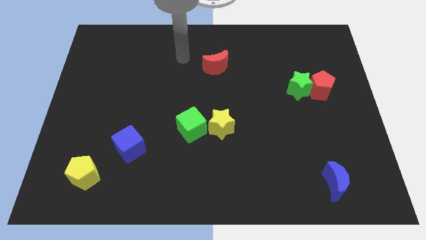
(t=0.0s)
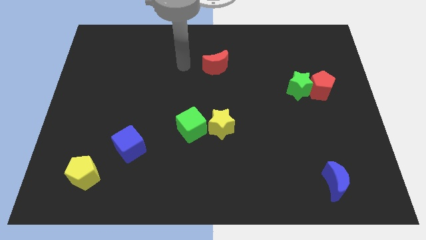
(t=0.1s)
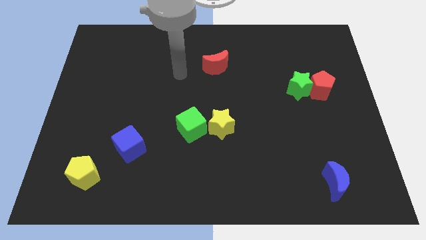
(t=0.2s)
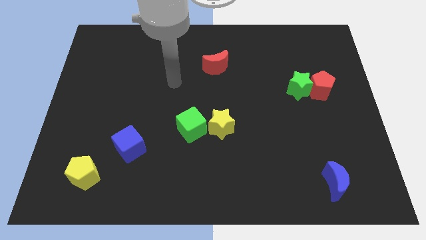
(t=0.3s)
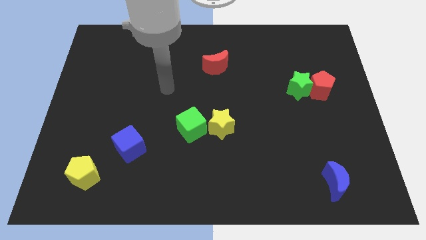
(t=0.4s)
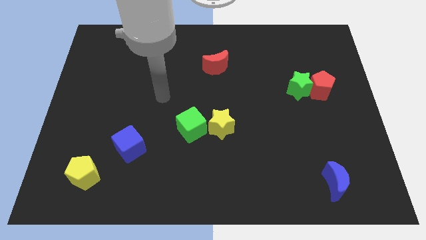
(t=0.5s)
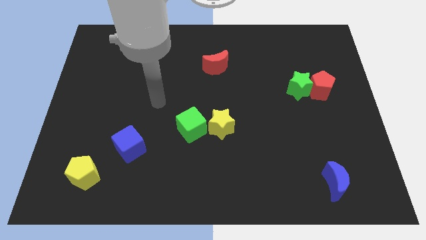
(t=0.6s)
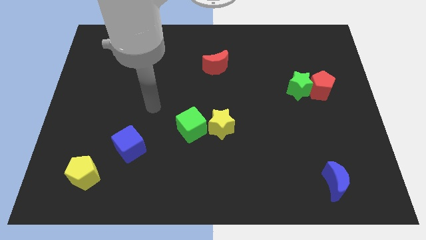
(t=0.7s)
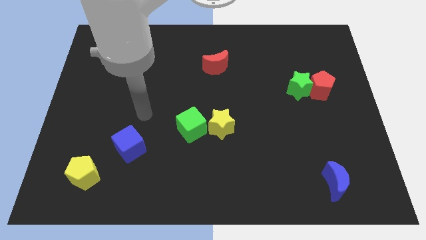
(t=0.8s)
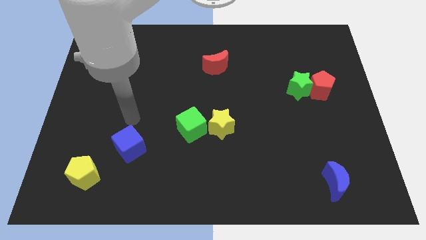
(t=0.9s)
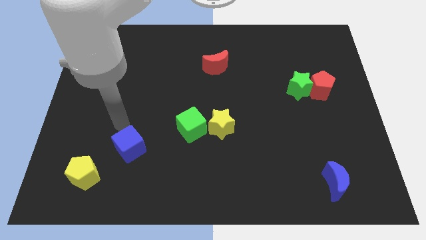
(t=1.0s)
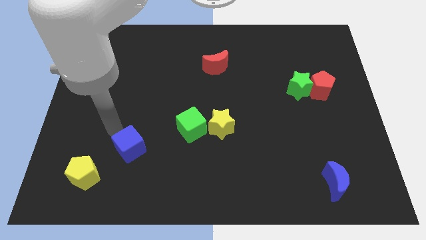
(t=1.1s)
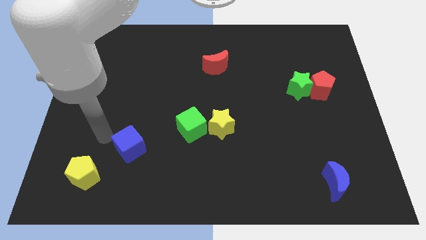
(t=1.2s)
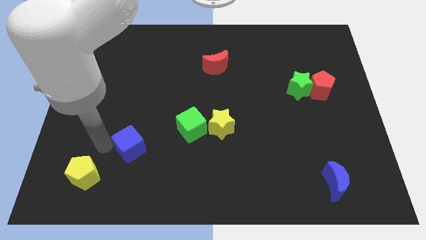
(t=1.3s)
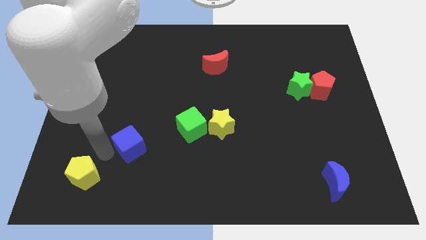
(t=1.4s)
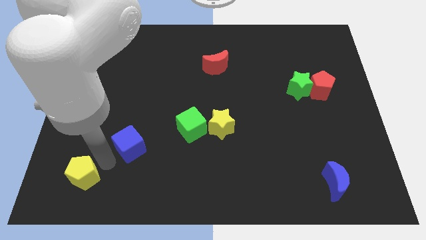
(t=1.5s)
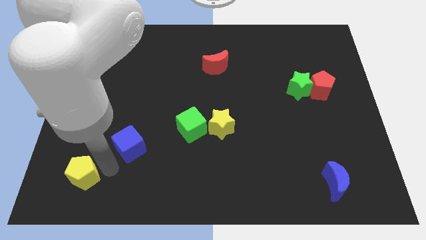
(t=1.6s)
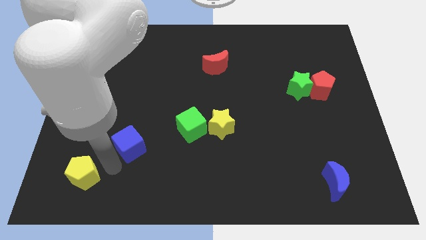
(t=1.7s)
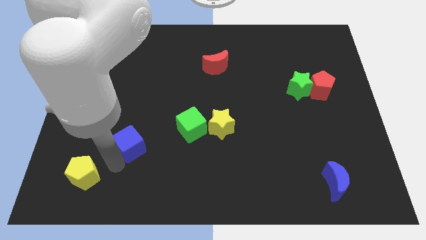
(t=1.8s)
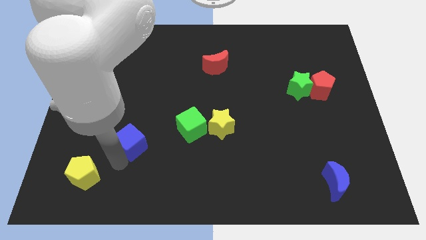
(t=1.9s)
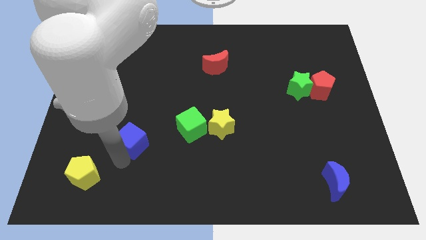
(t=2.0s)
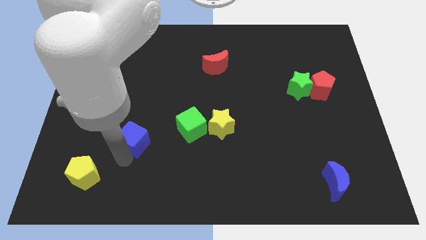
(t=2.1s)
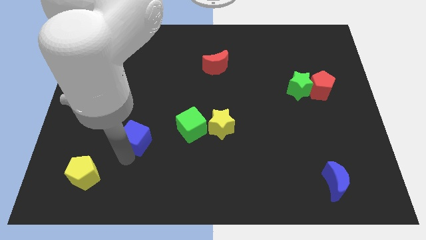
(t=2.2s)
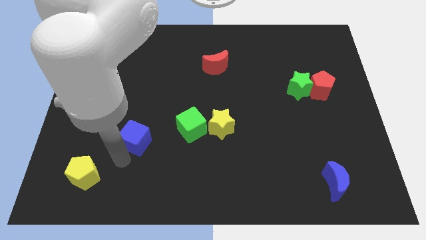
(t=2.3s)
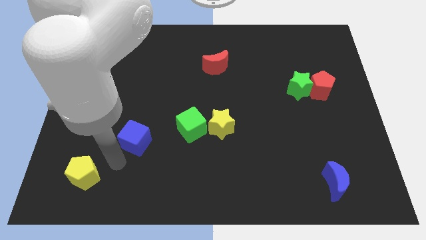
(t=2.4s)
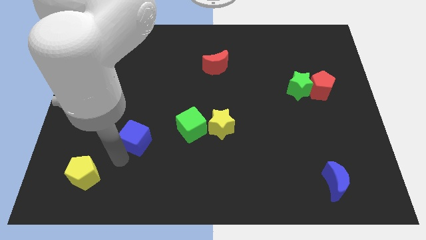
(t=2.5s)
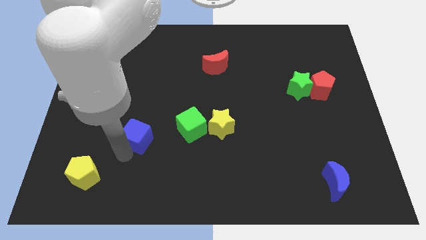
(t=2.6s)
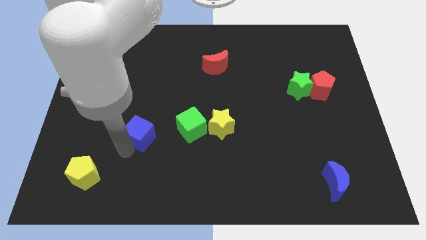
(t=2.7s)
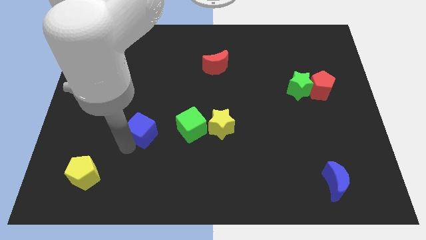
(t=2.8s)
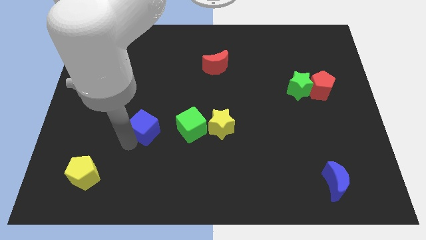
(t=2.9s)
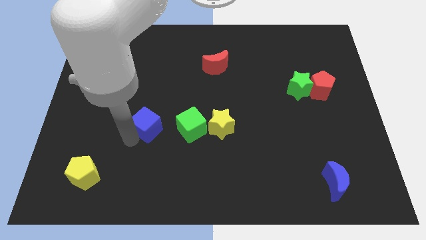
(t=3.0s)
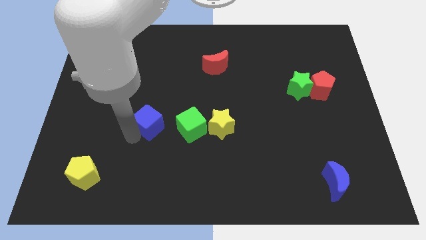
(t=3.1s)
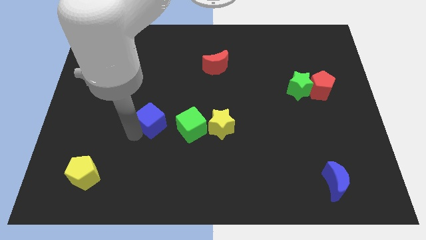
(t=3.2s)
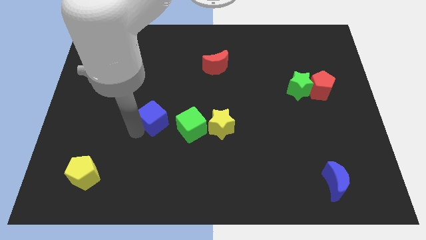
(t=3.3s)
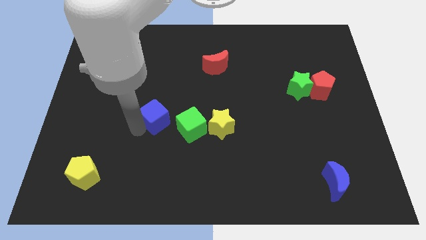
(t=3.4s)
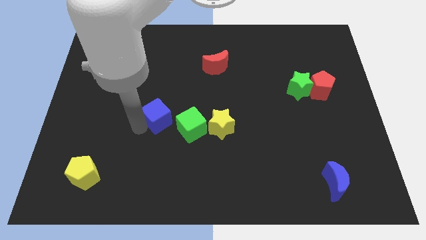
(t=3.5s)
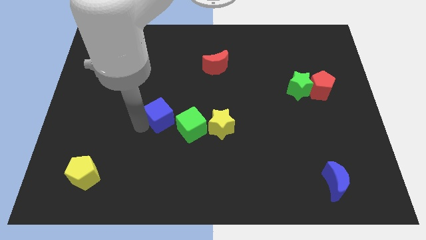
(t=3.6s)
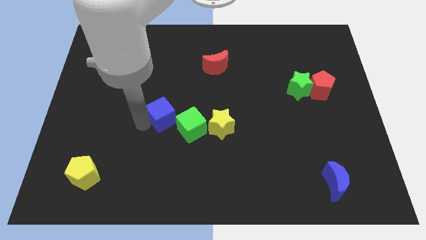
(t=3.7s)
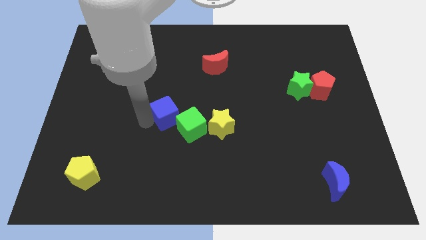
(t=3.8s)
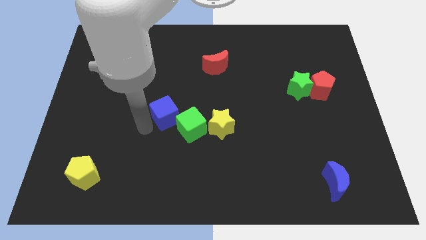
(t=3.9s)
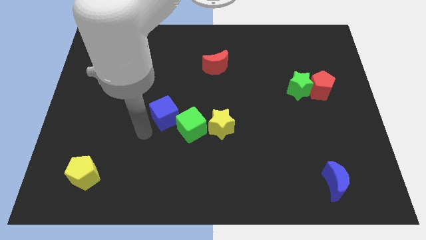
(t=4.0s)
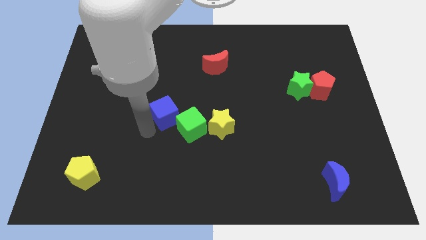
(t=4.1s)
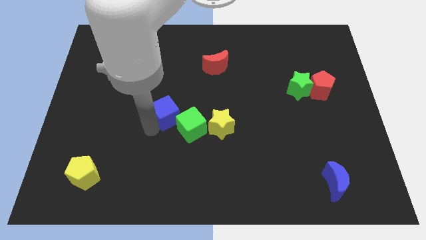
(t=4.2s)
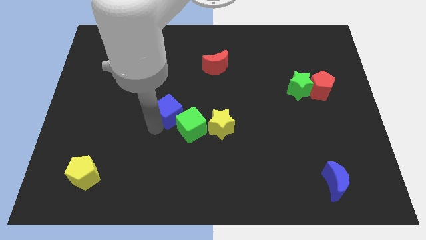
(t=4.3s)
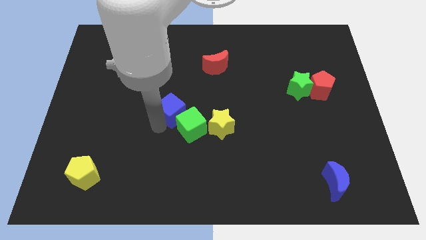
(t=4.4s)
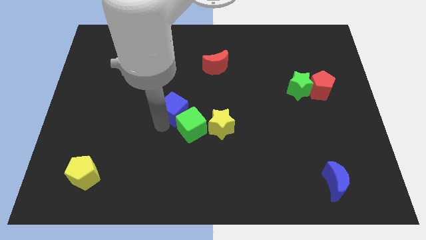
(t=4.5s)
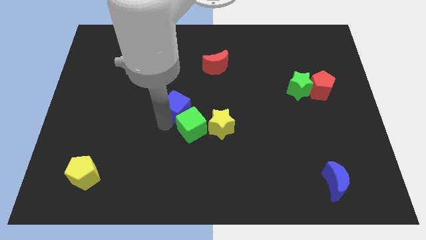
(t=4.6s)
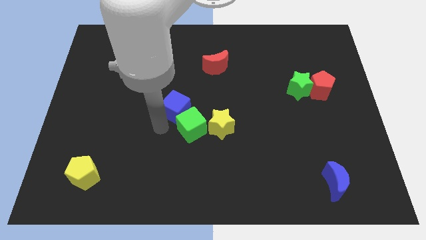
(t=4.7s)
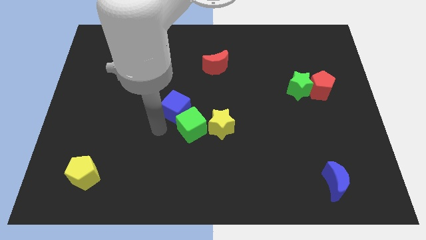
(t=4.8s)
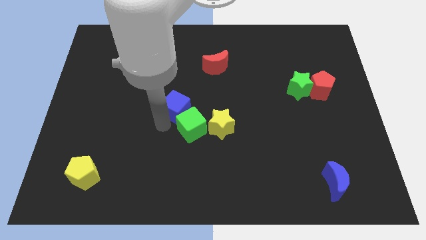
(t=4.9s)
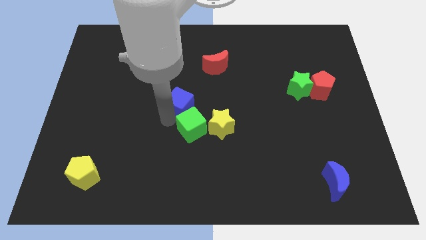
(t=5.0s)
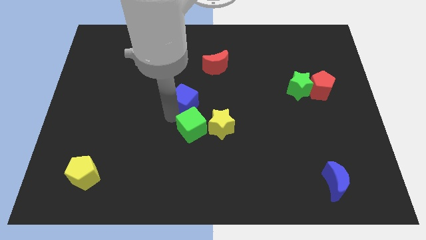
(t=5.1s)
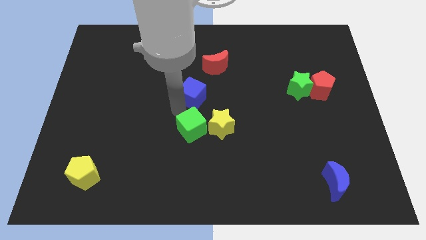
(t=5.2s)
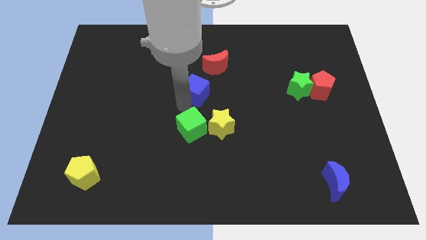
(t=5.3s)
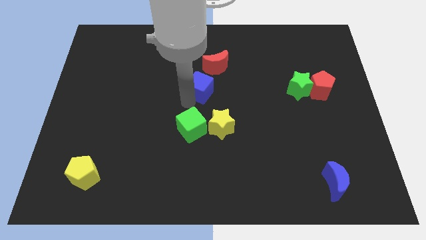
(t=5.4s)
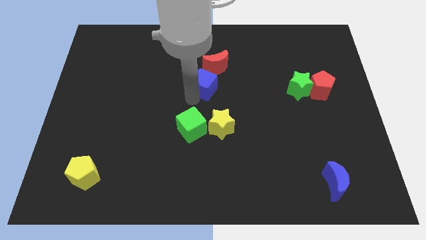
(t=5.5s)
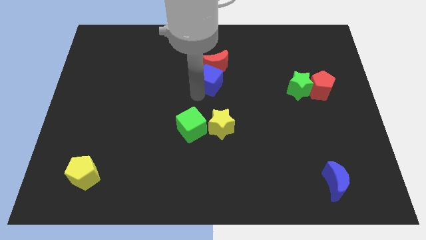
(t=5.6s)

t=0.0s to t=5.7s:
put the blue cube next to the red moon

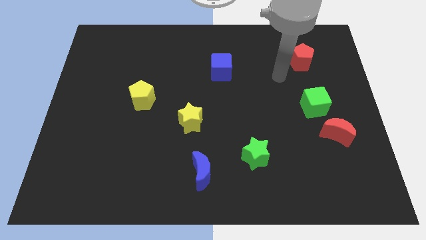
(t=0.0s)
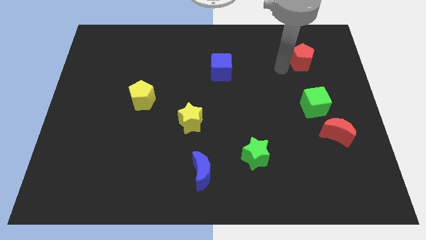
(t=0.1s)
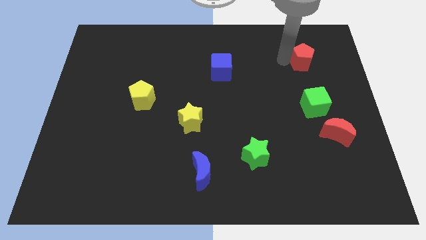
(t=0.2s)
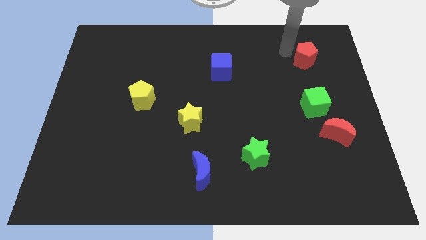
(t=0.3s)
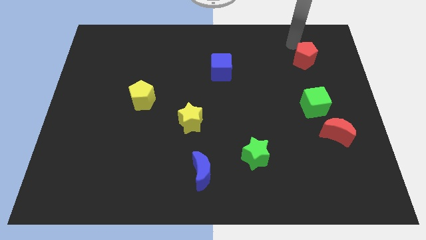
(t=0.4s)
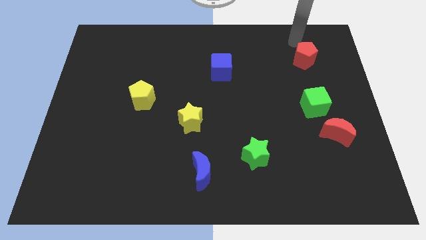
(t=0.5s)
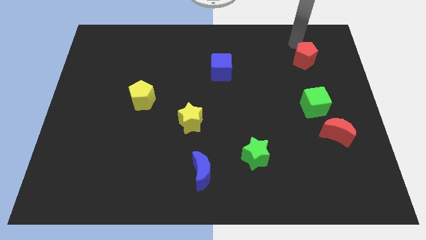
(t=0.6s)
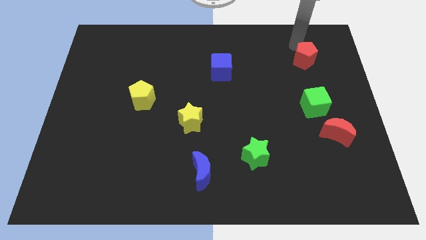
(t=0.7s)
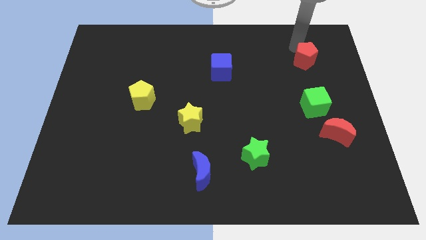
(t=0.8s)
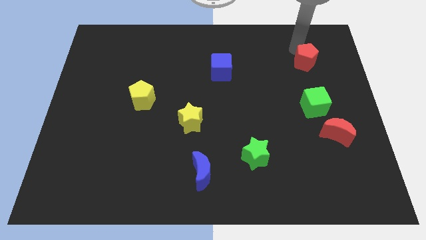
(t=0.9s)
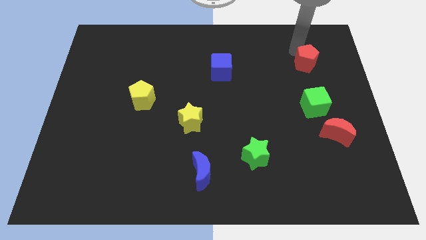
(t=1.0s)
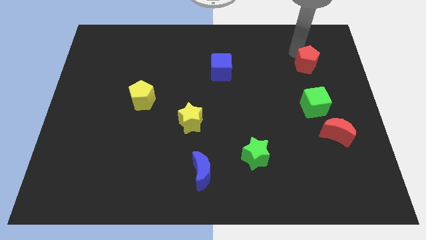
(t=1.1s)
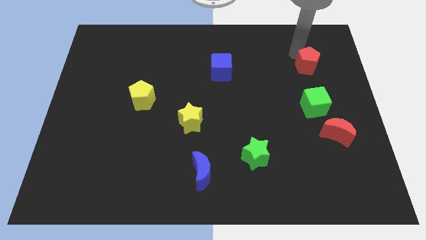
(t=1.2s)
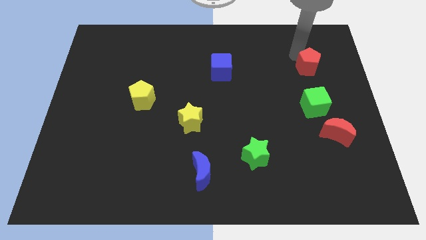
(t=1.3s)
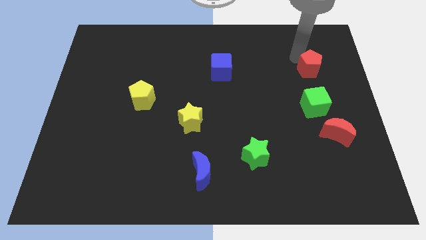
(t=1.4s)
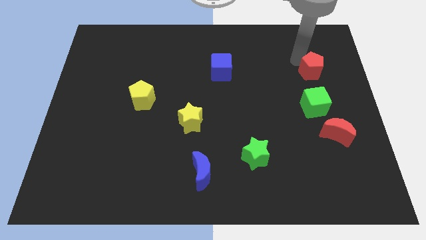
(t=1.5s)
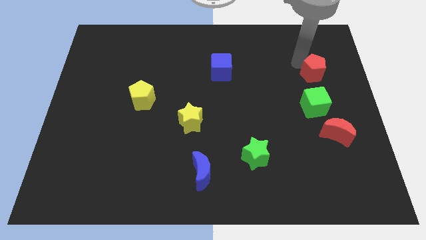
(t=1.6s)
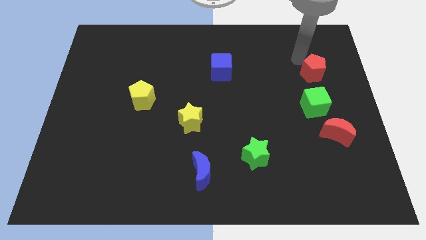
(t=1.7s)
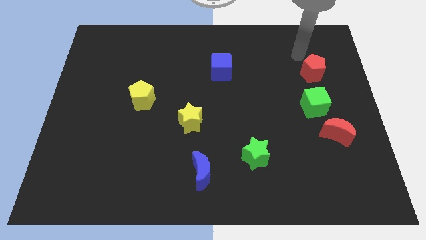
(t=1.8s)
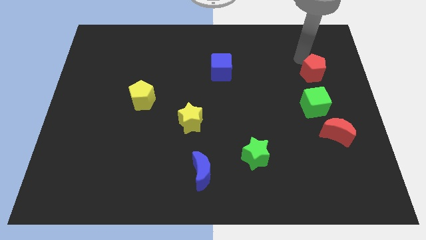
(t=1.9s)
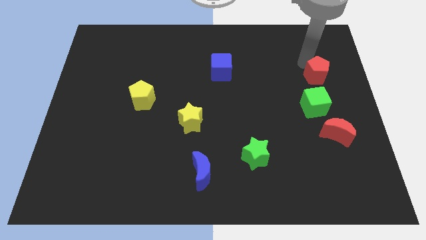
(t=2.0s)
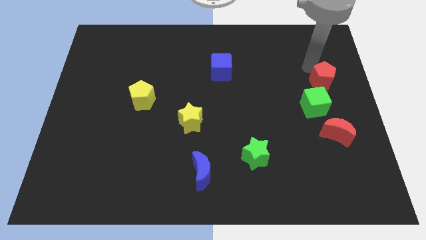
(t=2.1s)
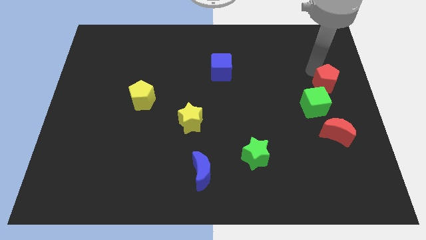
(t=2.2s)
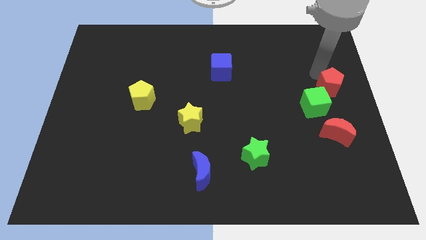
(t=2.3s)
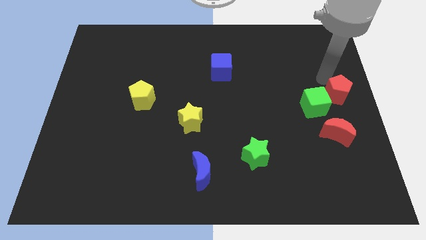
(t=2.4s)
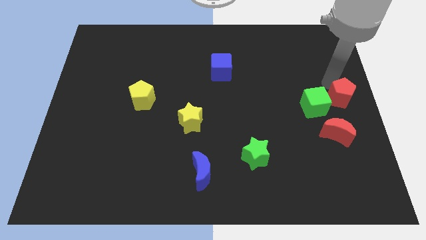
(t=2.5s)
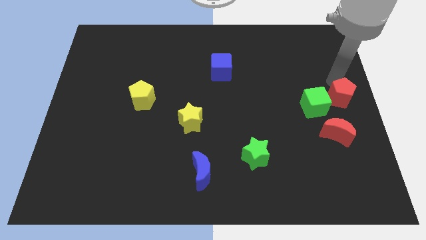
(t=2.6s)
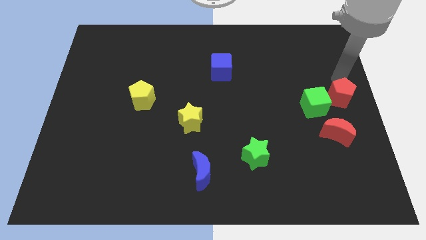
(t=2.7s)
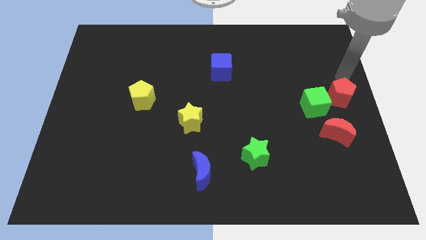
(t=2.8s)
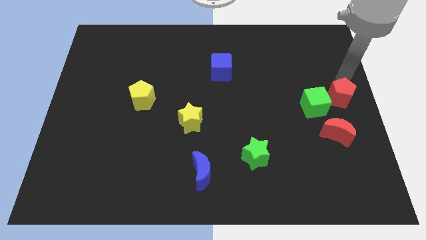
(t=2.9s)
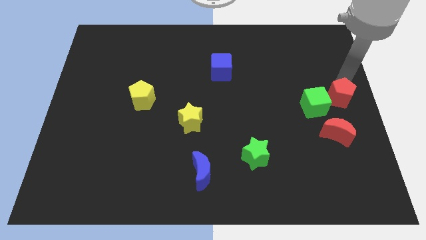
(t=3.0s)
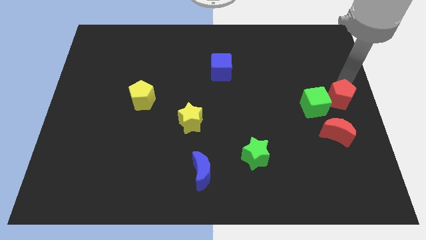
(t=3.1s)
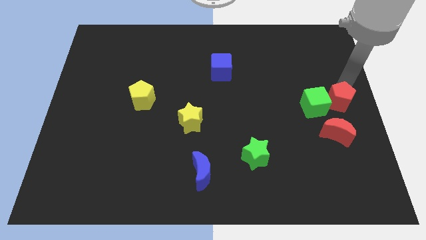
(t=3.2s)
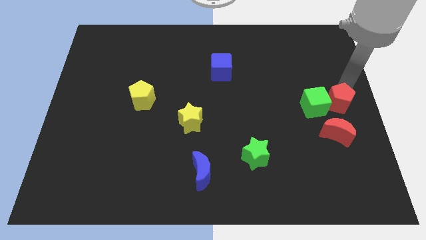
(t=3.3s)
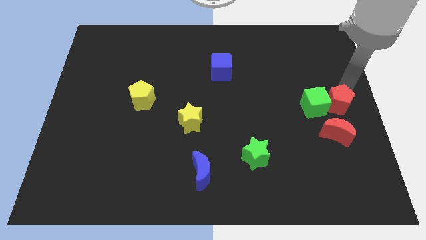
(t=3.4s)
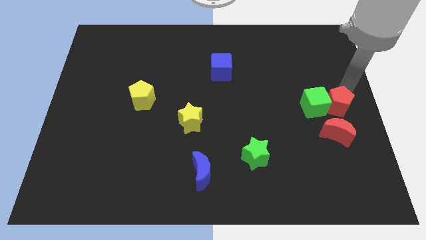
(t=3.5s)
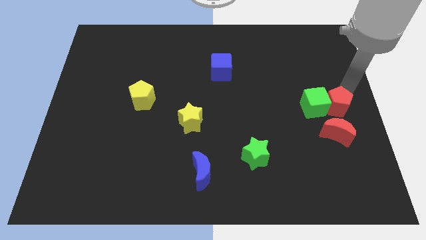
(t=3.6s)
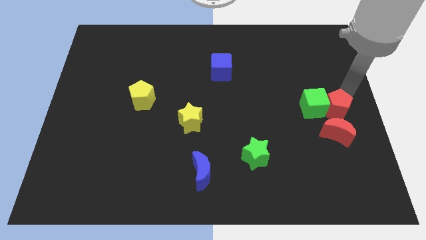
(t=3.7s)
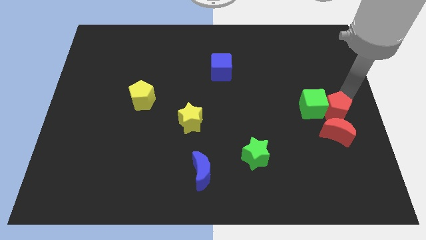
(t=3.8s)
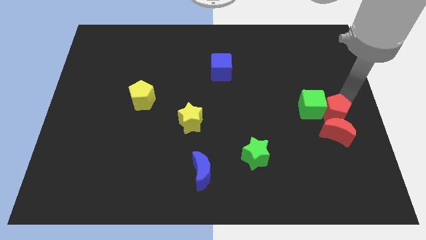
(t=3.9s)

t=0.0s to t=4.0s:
move the red pentagon towards the red moon
